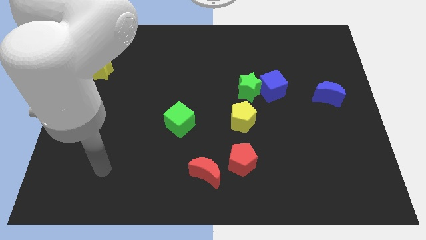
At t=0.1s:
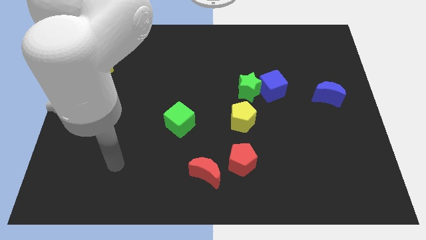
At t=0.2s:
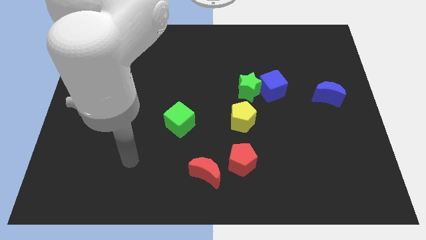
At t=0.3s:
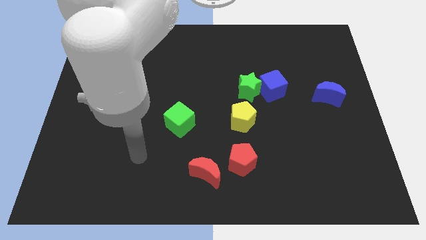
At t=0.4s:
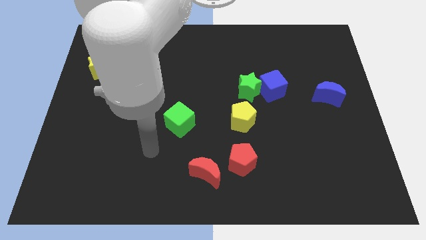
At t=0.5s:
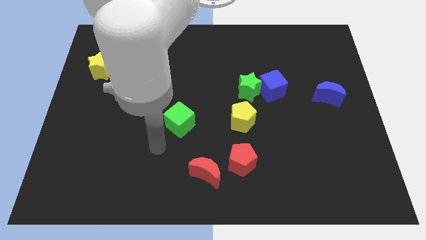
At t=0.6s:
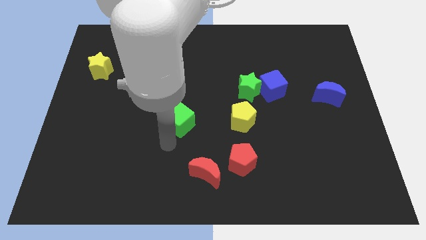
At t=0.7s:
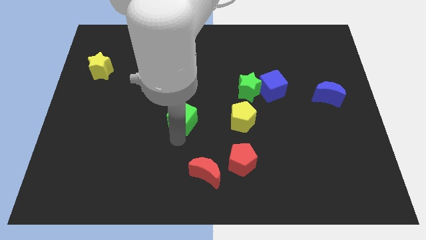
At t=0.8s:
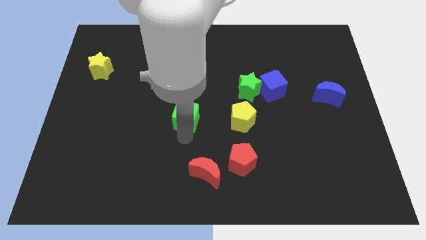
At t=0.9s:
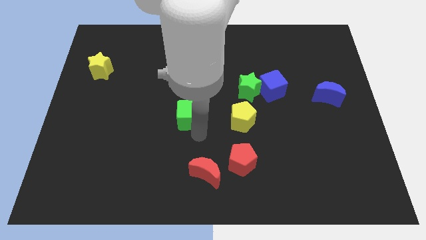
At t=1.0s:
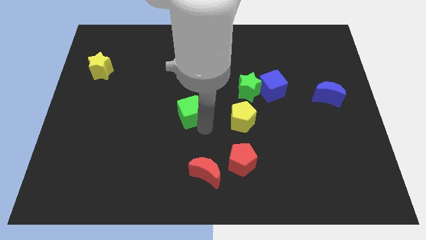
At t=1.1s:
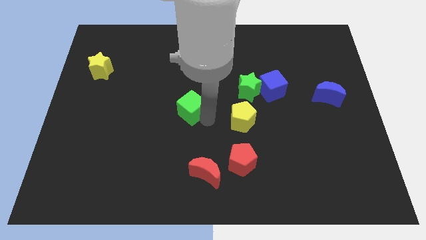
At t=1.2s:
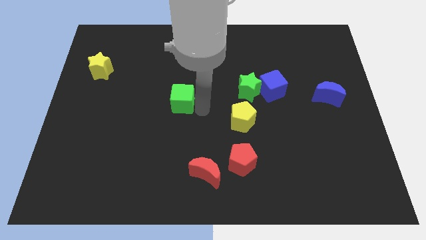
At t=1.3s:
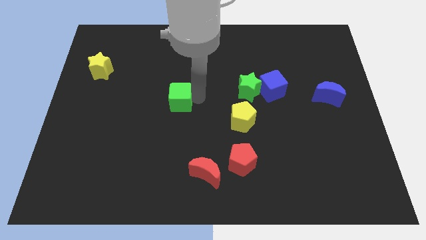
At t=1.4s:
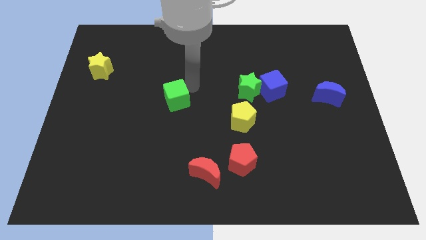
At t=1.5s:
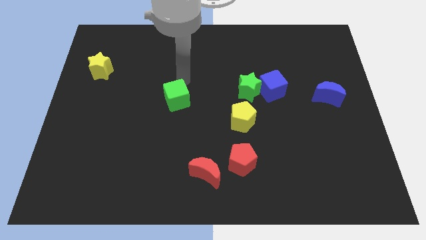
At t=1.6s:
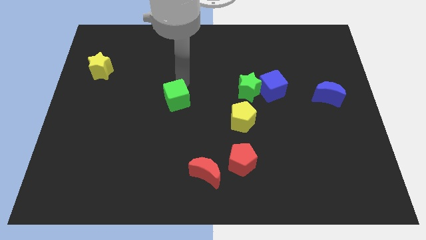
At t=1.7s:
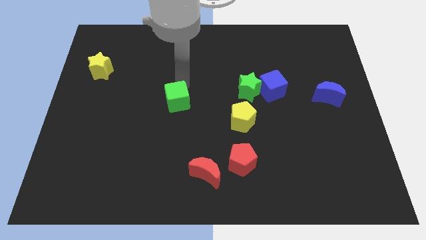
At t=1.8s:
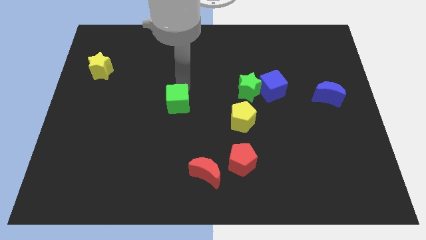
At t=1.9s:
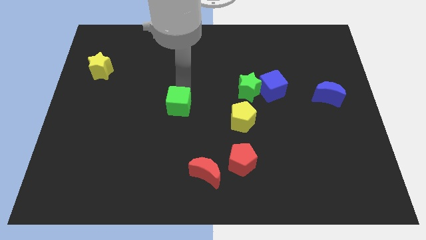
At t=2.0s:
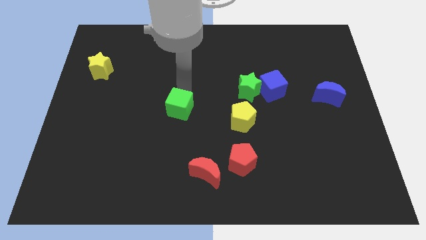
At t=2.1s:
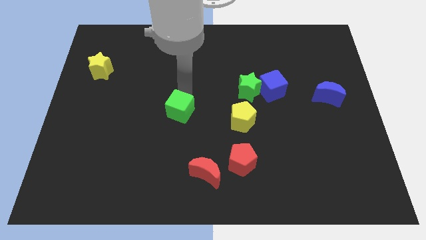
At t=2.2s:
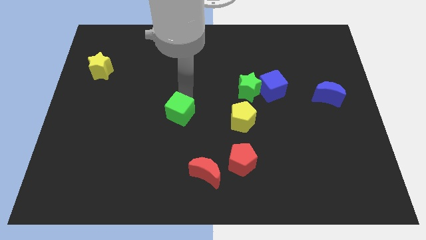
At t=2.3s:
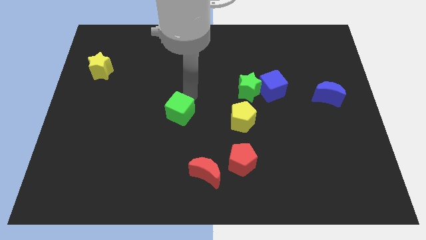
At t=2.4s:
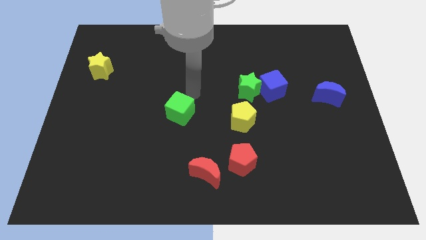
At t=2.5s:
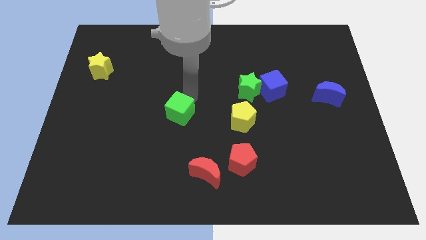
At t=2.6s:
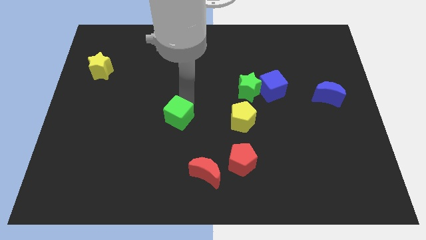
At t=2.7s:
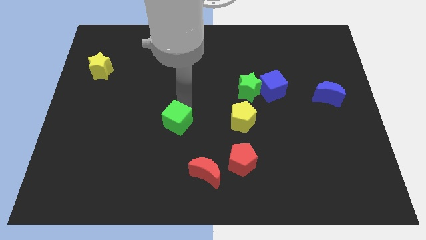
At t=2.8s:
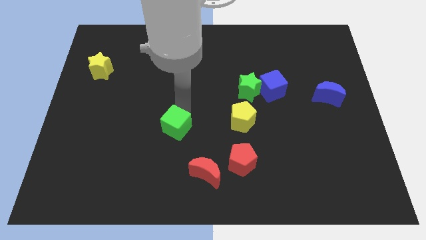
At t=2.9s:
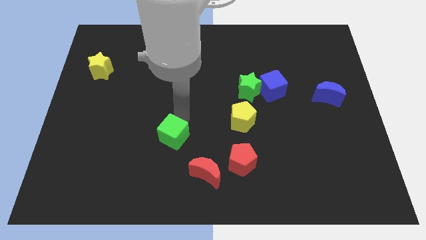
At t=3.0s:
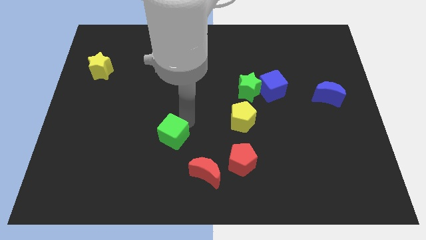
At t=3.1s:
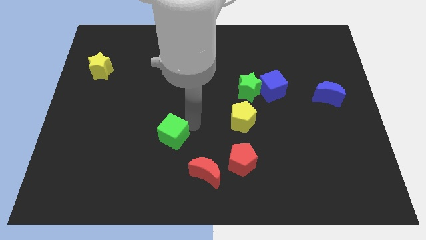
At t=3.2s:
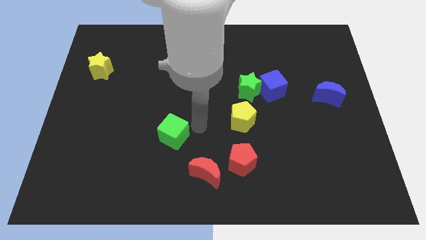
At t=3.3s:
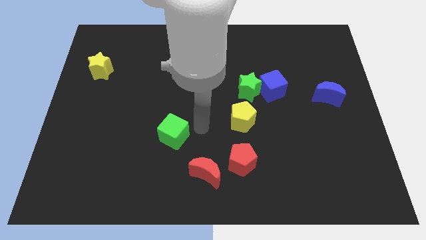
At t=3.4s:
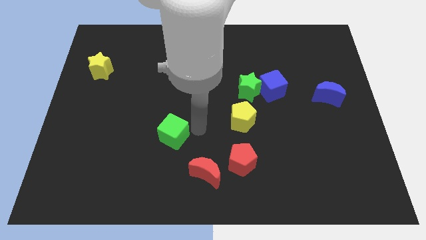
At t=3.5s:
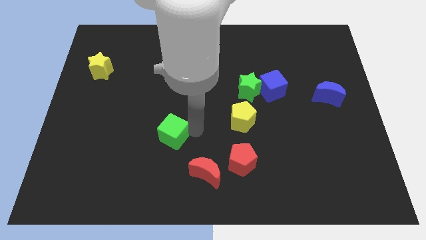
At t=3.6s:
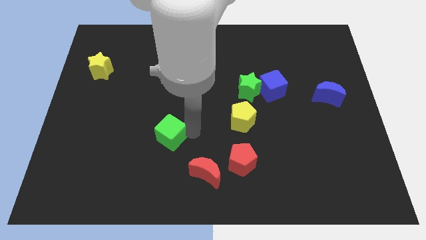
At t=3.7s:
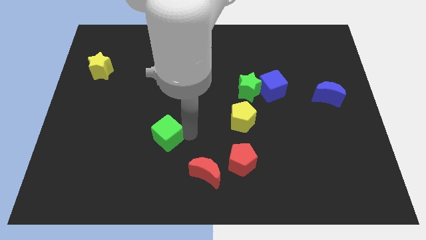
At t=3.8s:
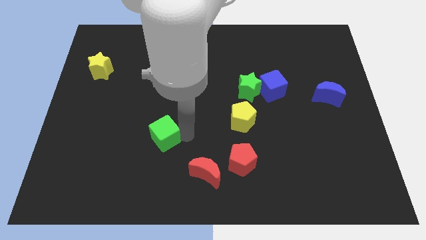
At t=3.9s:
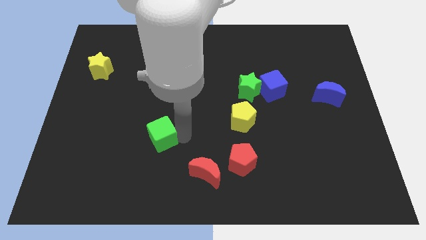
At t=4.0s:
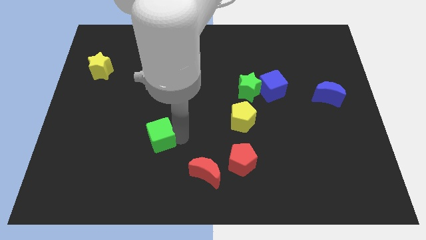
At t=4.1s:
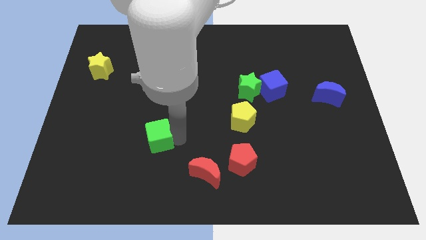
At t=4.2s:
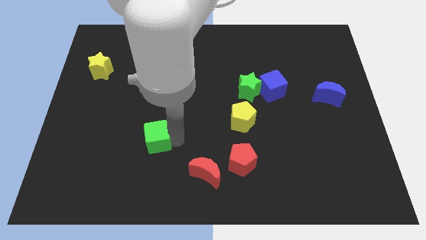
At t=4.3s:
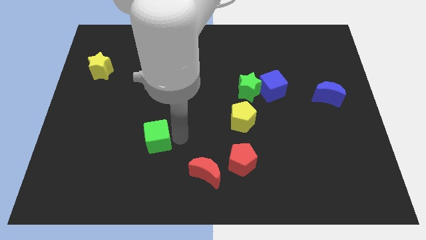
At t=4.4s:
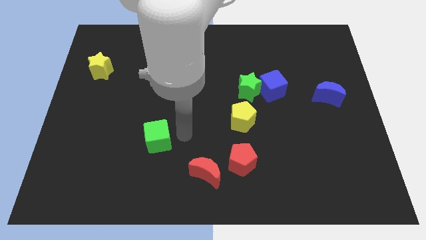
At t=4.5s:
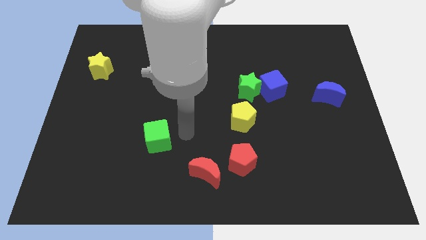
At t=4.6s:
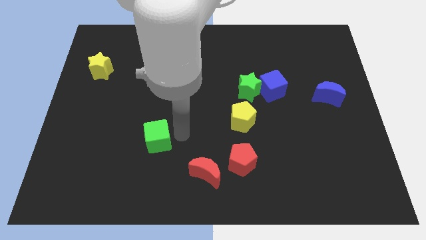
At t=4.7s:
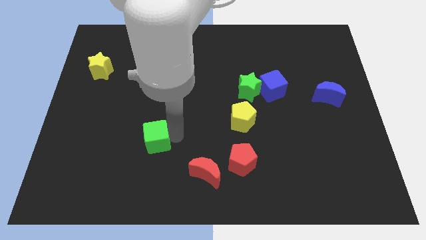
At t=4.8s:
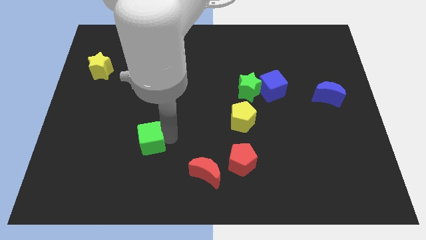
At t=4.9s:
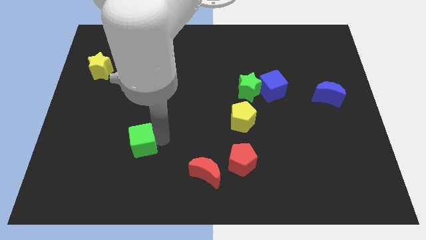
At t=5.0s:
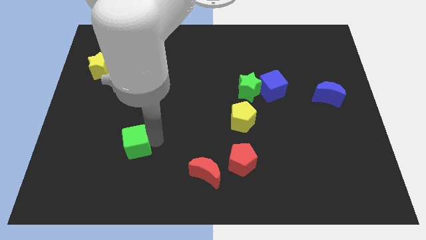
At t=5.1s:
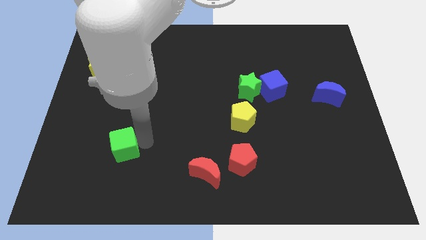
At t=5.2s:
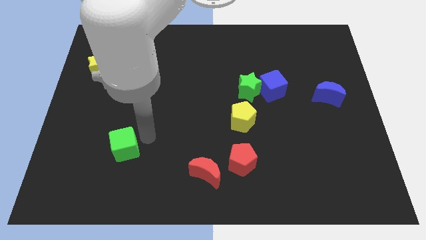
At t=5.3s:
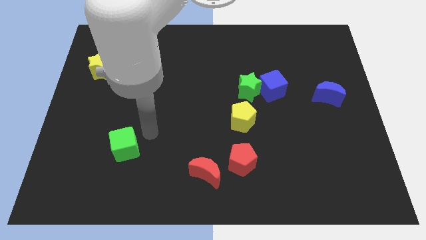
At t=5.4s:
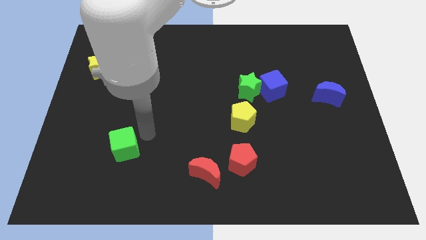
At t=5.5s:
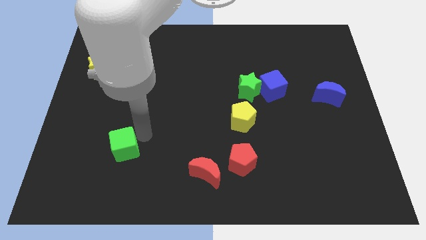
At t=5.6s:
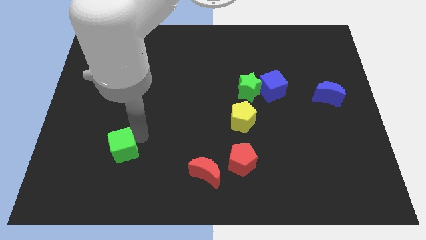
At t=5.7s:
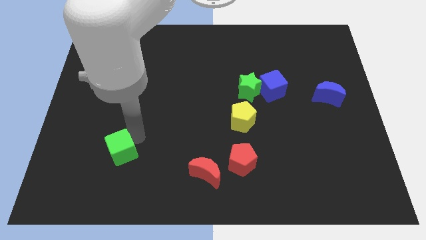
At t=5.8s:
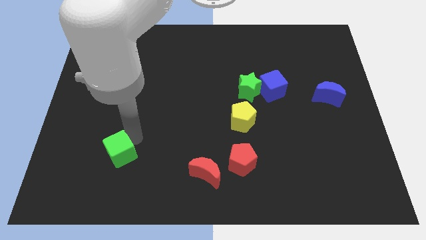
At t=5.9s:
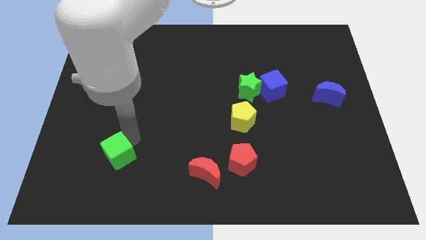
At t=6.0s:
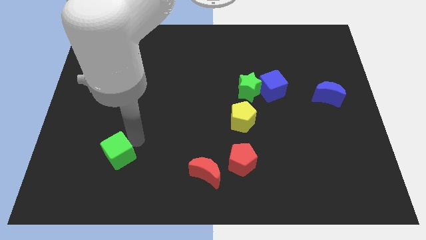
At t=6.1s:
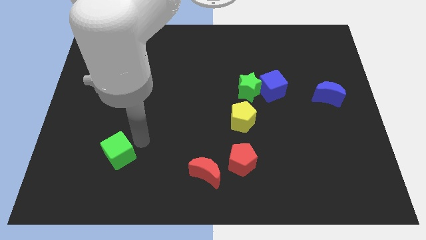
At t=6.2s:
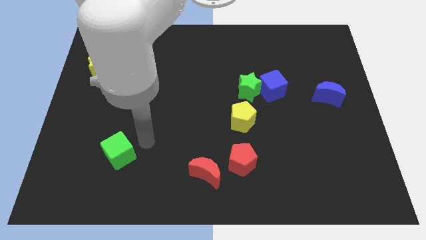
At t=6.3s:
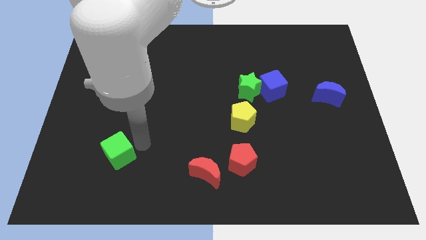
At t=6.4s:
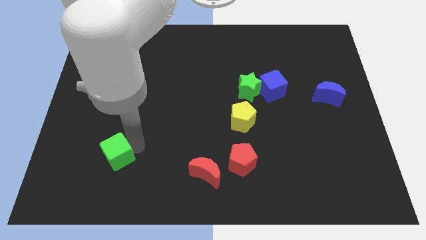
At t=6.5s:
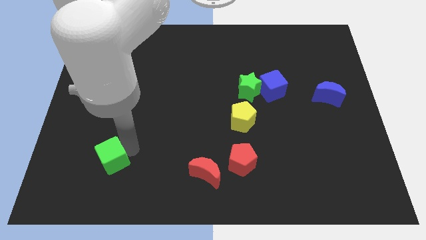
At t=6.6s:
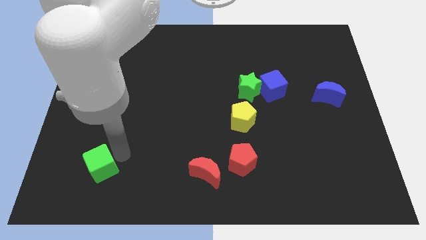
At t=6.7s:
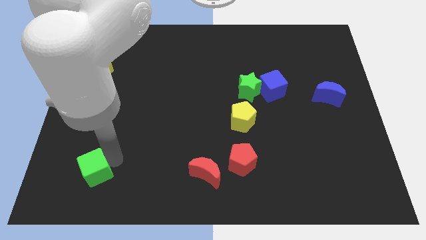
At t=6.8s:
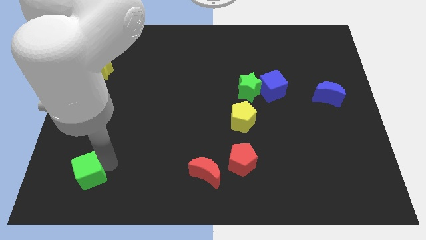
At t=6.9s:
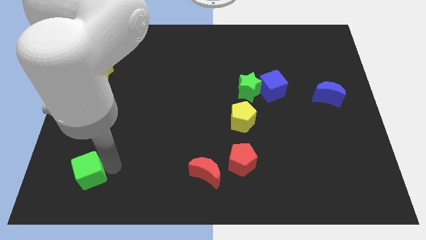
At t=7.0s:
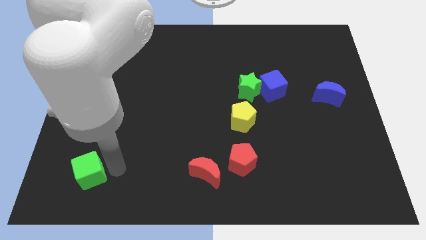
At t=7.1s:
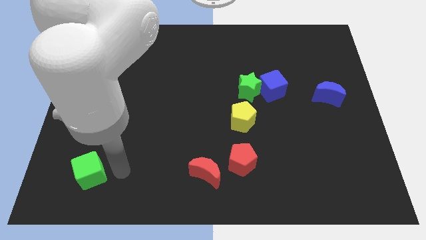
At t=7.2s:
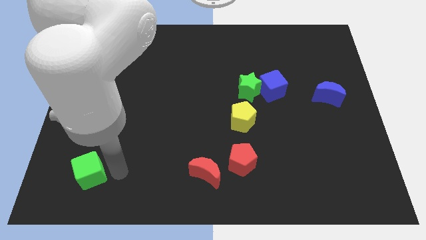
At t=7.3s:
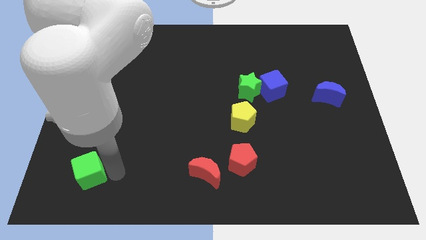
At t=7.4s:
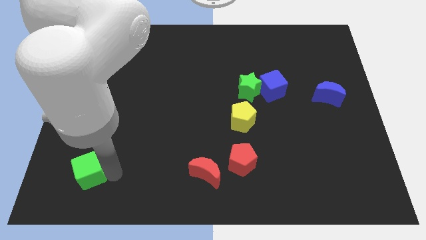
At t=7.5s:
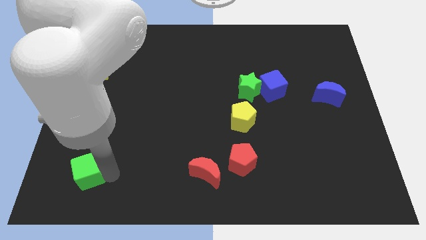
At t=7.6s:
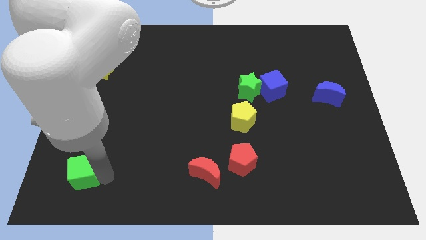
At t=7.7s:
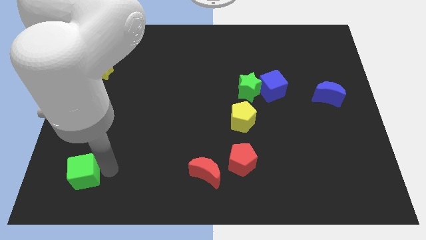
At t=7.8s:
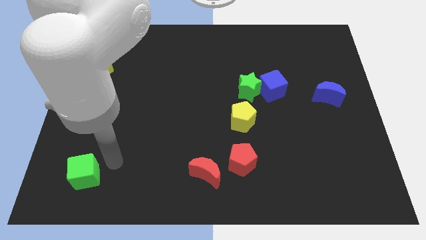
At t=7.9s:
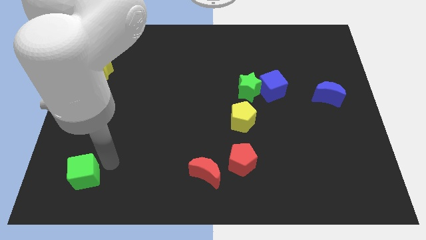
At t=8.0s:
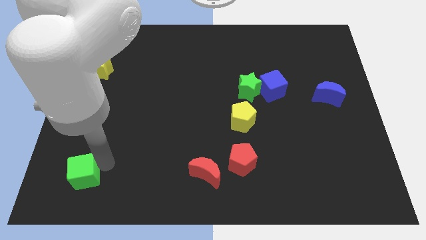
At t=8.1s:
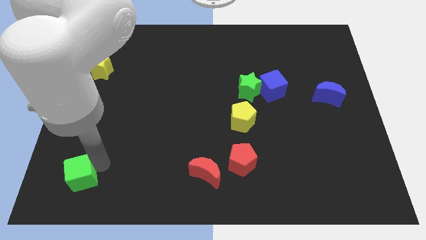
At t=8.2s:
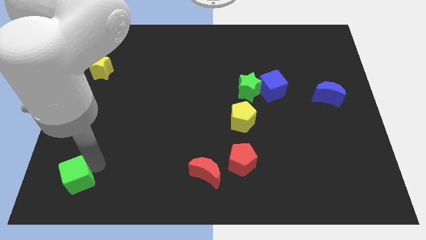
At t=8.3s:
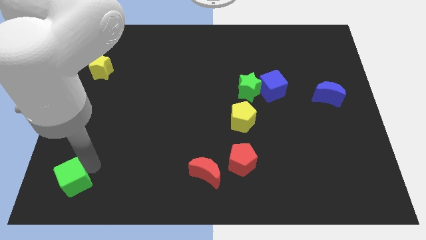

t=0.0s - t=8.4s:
slide the green cube to the bottom left of the board
